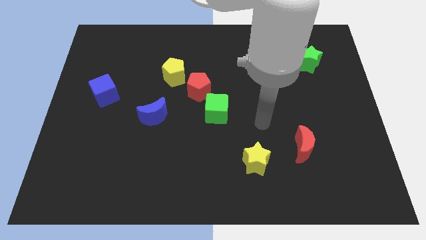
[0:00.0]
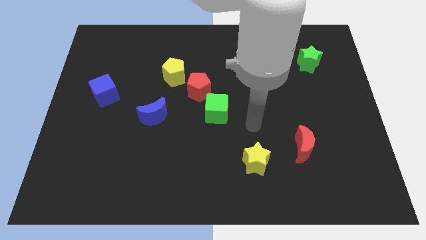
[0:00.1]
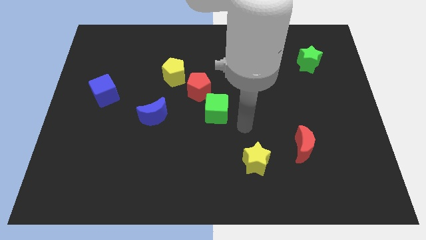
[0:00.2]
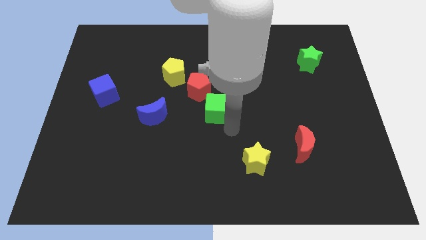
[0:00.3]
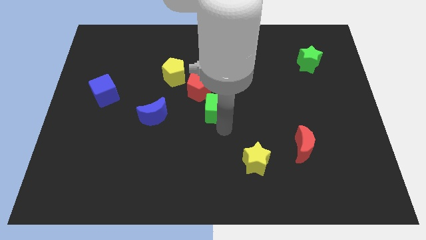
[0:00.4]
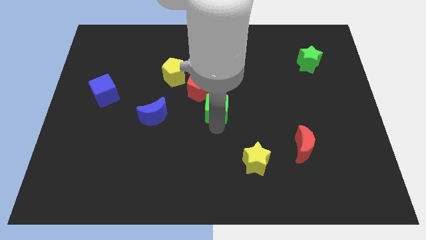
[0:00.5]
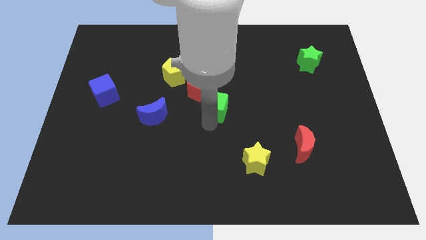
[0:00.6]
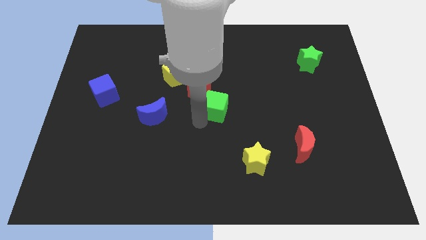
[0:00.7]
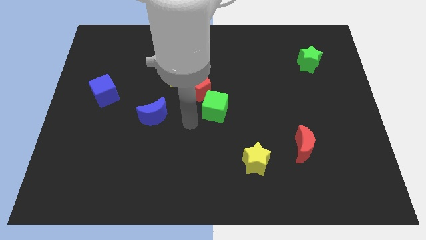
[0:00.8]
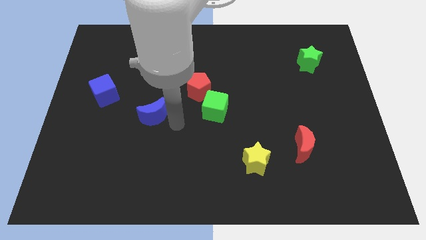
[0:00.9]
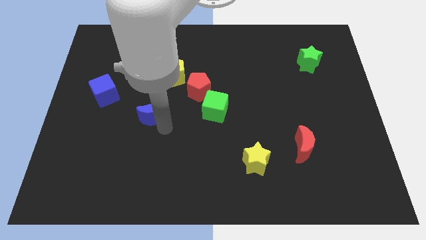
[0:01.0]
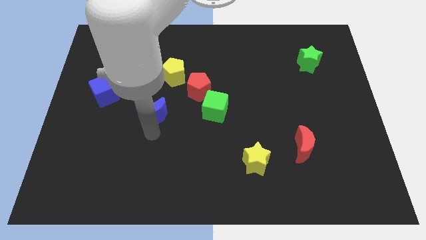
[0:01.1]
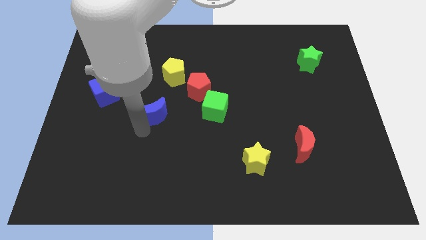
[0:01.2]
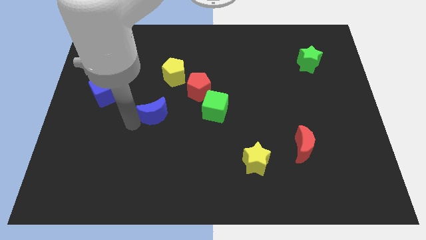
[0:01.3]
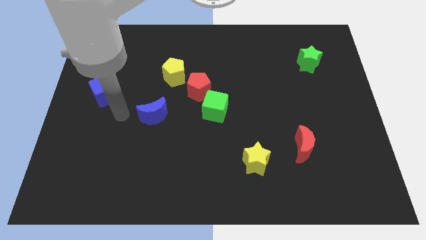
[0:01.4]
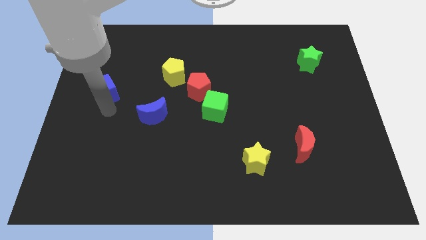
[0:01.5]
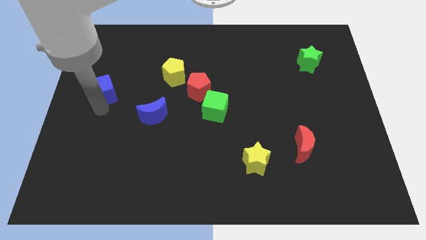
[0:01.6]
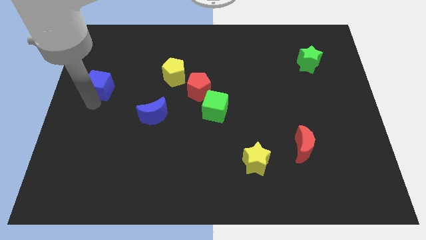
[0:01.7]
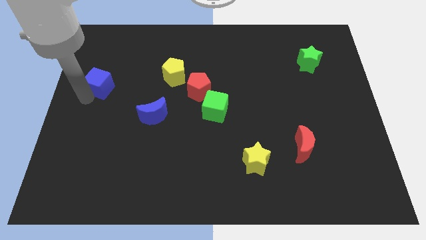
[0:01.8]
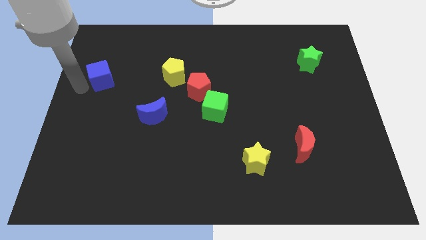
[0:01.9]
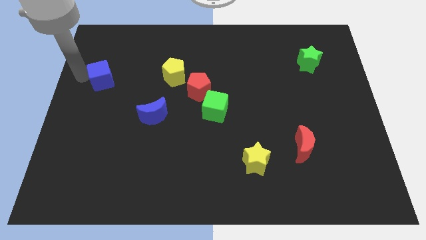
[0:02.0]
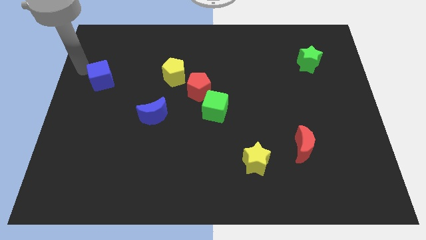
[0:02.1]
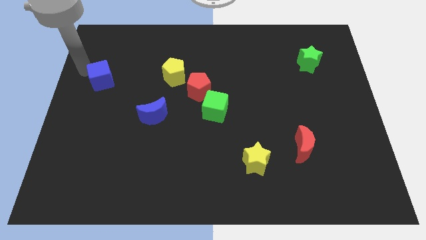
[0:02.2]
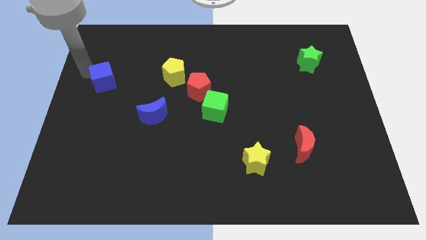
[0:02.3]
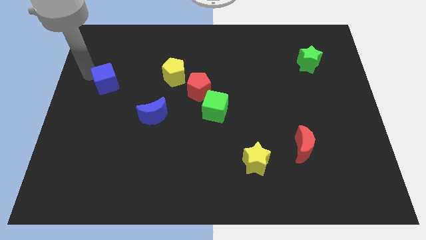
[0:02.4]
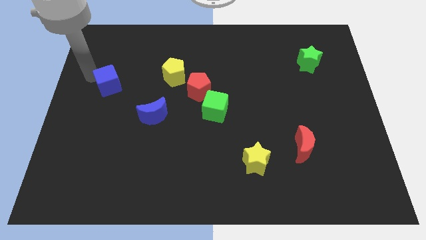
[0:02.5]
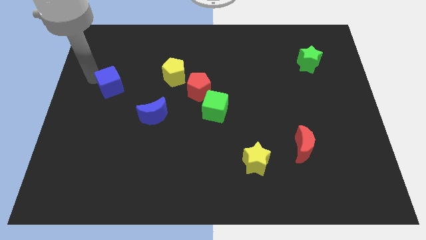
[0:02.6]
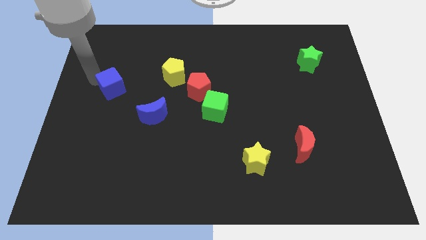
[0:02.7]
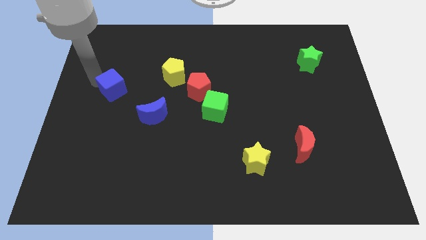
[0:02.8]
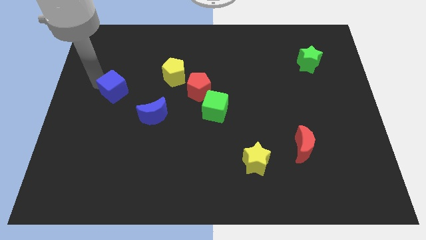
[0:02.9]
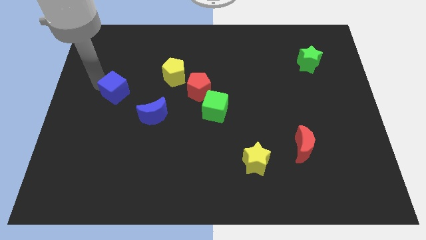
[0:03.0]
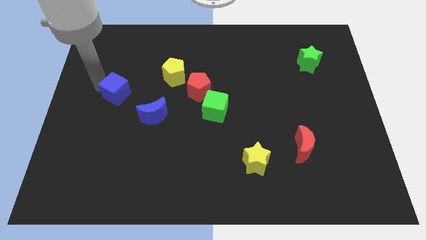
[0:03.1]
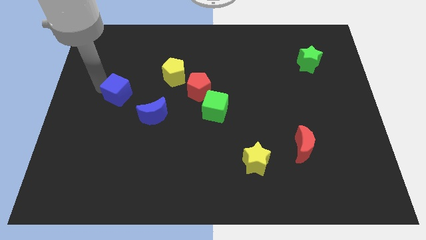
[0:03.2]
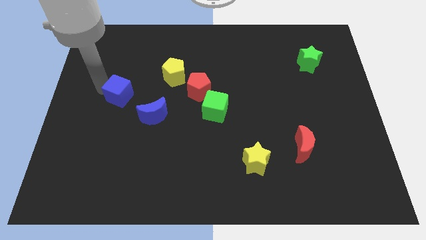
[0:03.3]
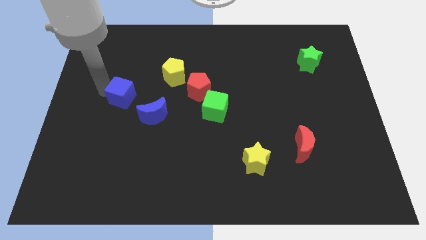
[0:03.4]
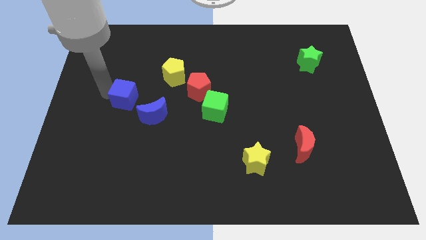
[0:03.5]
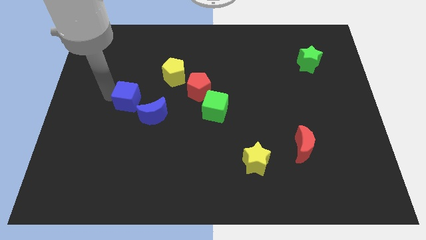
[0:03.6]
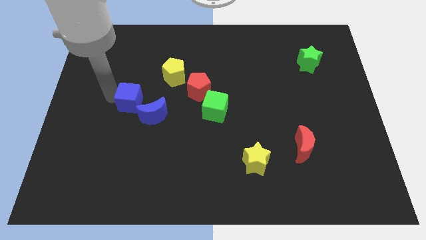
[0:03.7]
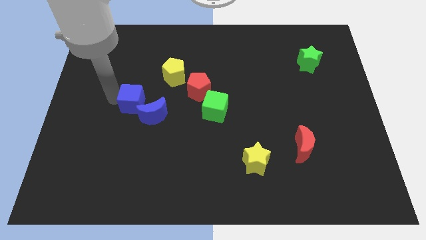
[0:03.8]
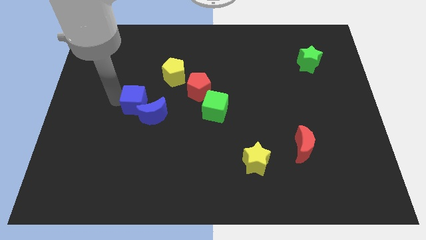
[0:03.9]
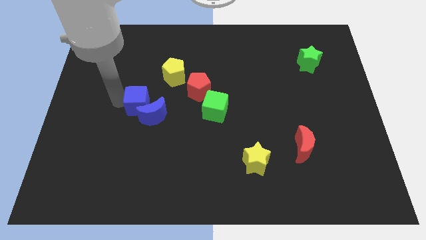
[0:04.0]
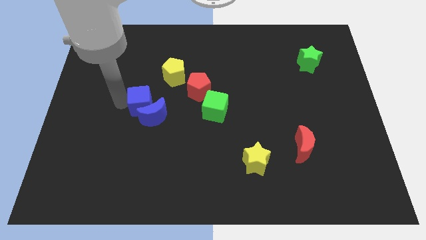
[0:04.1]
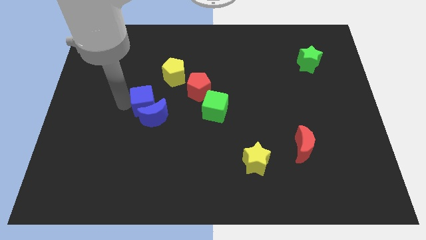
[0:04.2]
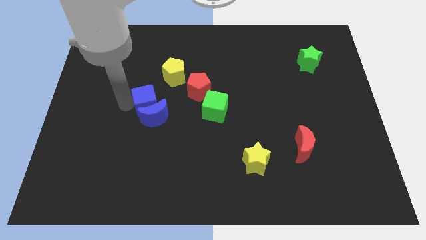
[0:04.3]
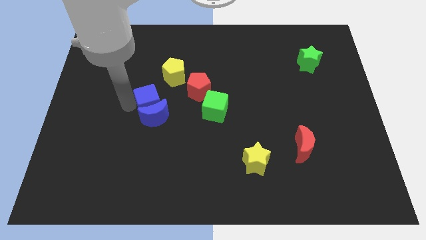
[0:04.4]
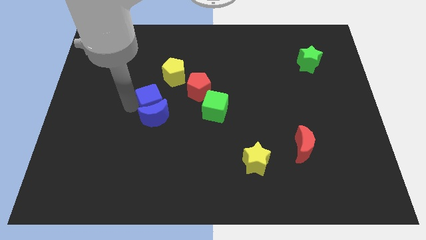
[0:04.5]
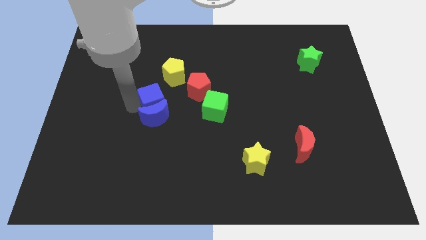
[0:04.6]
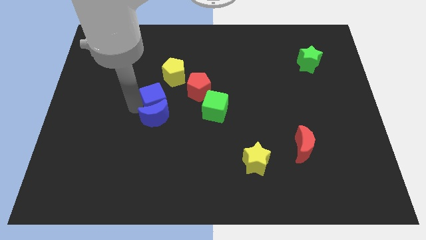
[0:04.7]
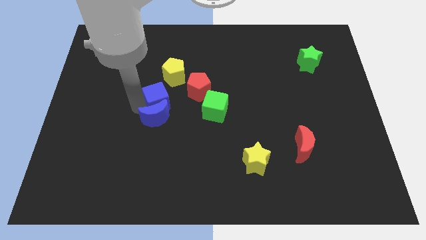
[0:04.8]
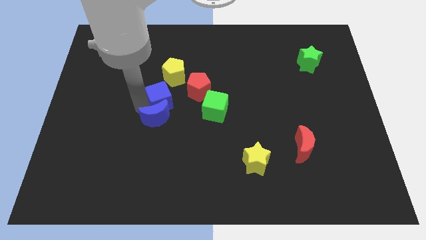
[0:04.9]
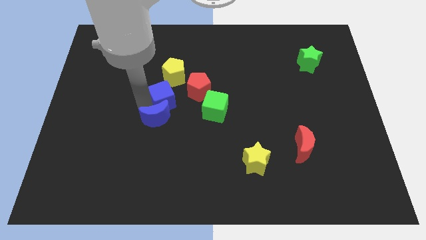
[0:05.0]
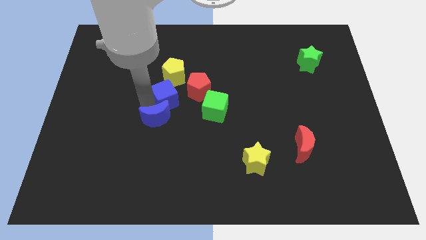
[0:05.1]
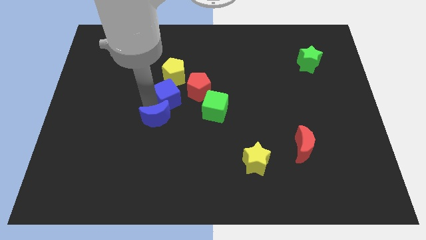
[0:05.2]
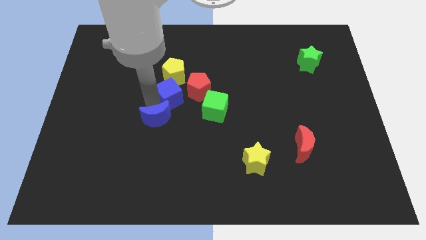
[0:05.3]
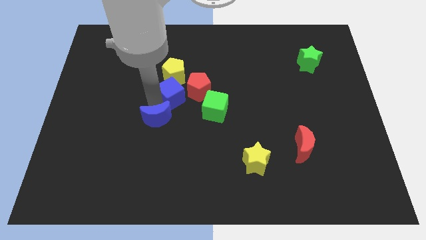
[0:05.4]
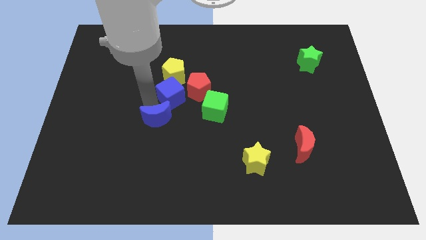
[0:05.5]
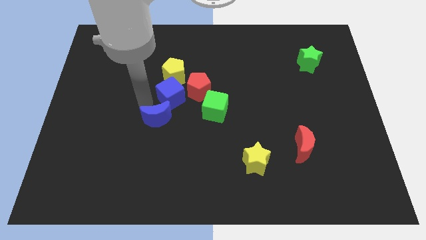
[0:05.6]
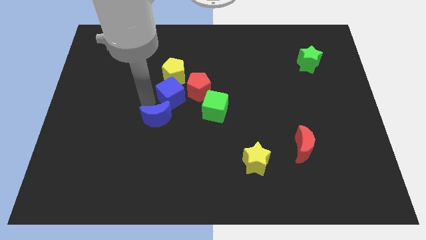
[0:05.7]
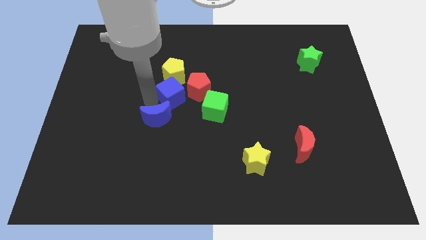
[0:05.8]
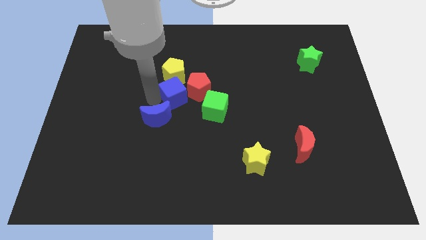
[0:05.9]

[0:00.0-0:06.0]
slide the blue cube towards the red pentagon

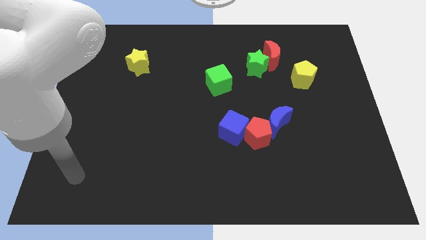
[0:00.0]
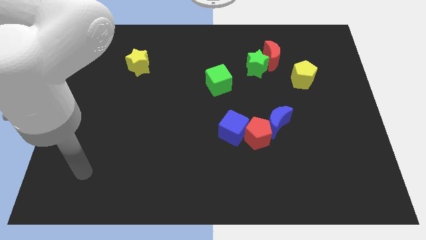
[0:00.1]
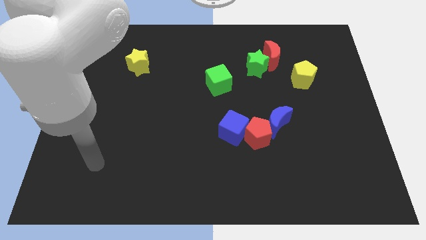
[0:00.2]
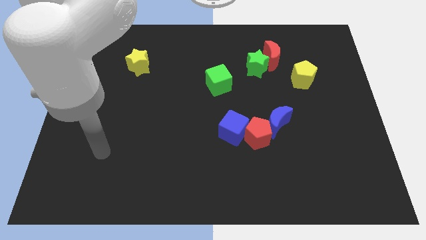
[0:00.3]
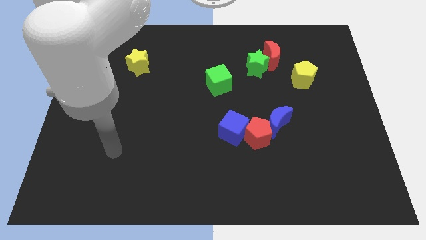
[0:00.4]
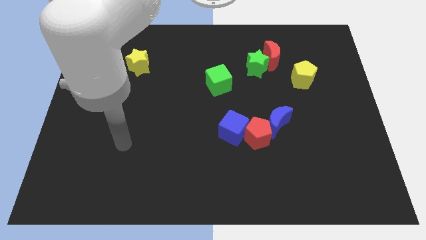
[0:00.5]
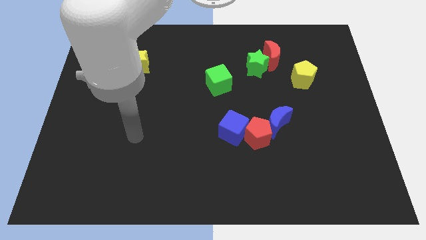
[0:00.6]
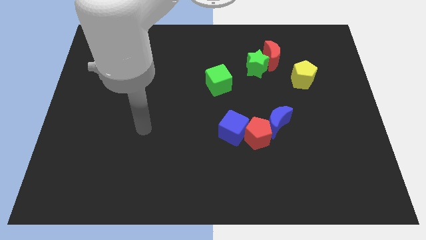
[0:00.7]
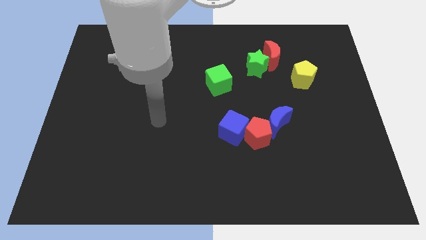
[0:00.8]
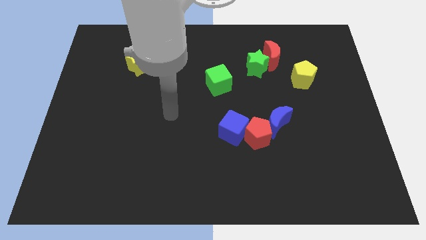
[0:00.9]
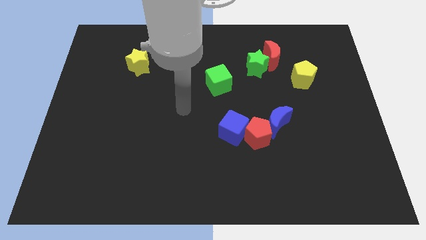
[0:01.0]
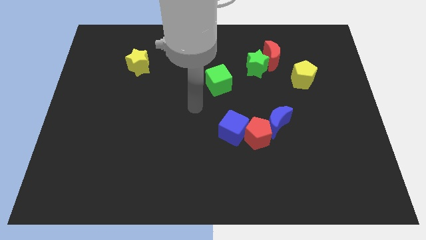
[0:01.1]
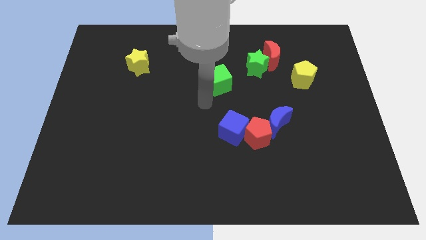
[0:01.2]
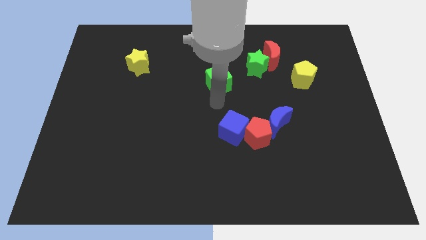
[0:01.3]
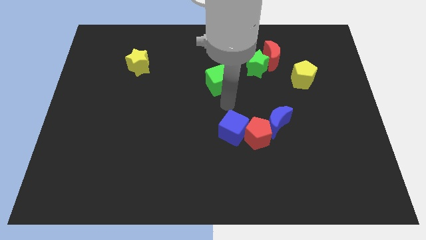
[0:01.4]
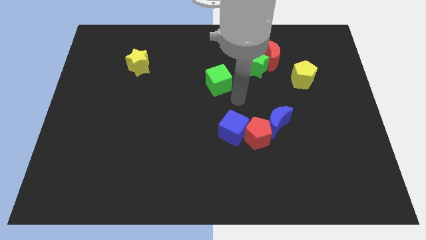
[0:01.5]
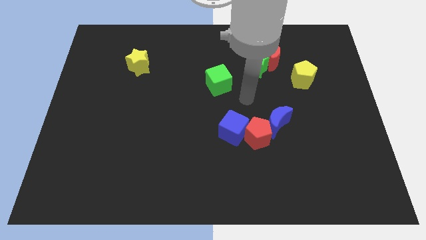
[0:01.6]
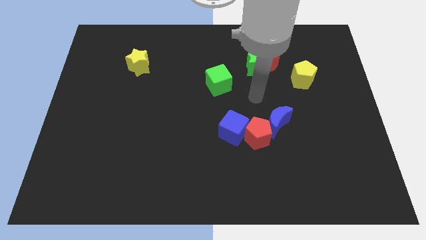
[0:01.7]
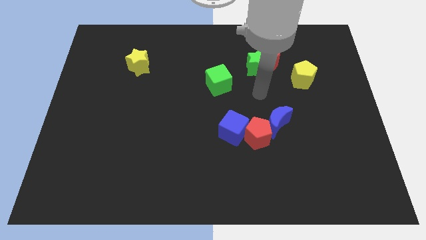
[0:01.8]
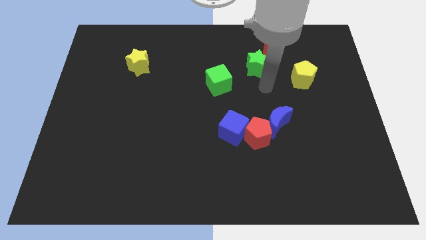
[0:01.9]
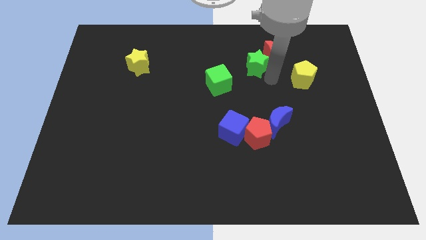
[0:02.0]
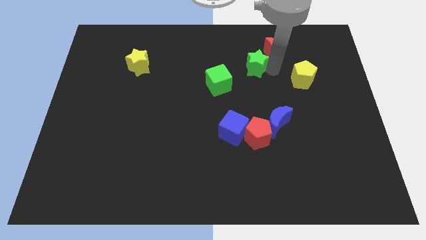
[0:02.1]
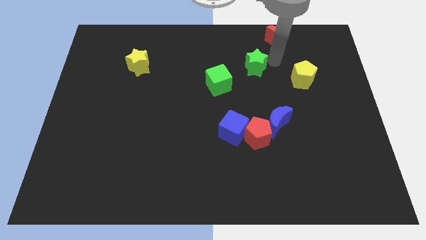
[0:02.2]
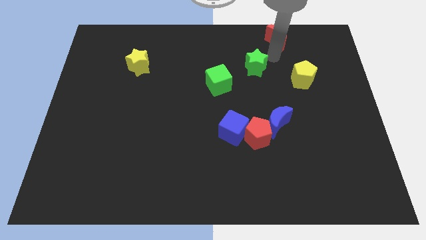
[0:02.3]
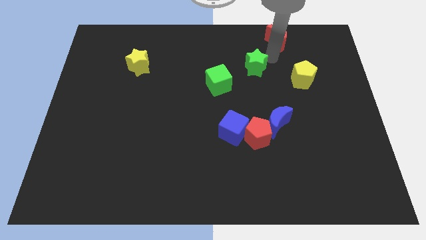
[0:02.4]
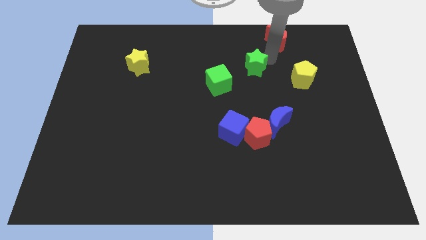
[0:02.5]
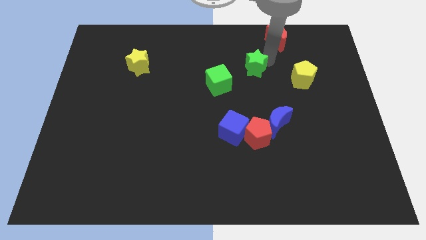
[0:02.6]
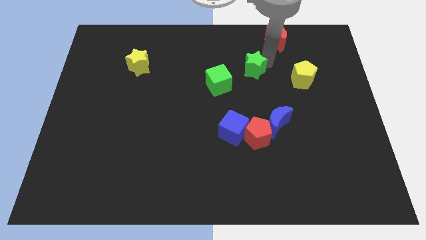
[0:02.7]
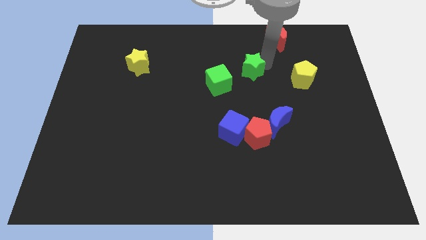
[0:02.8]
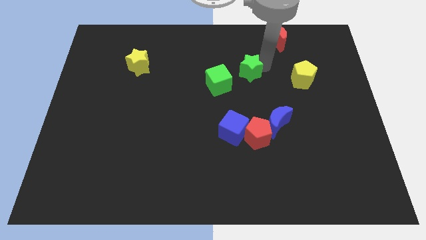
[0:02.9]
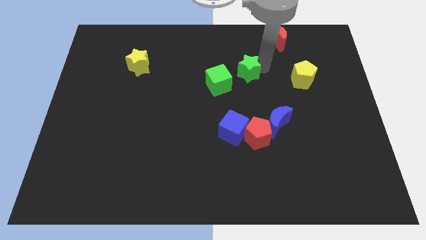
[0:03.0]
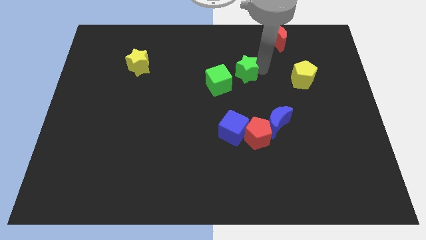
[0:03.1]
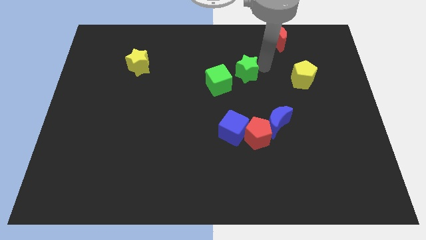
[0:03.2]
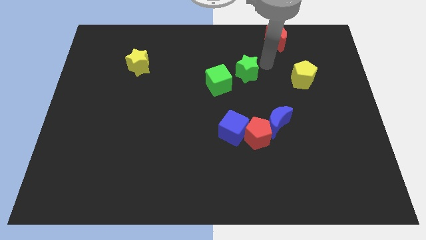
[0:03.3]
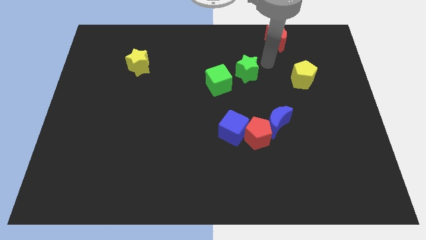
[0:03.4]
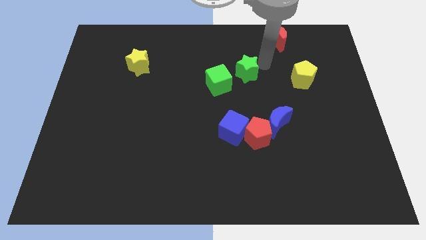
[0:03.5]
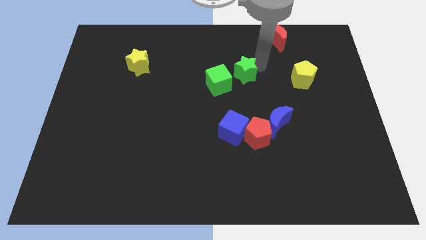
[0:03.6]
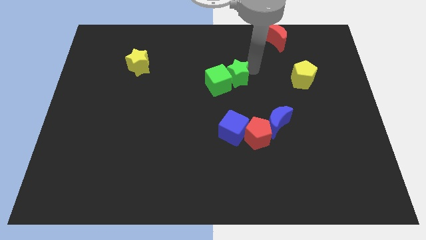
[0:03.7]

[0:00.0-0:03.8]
push the green star next to the green cube
